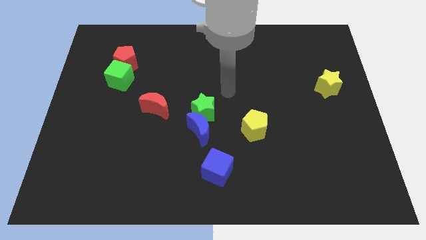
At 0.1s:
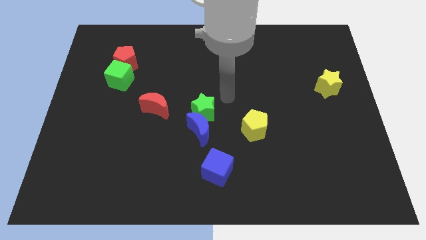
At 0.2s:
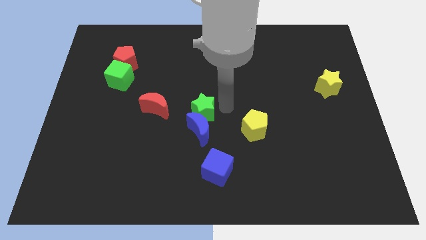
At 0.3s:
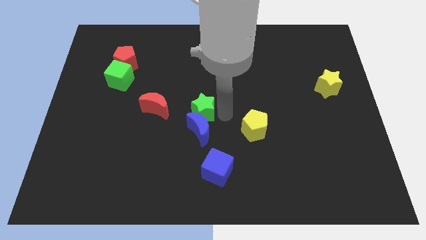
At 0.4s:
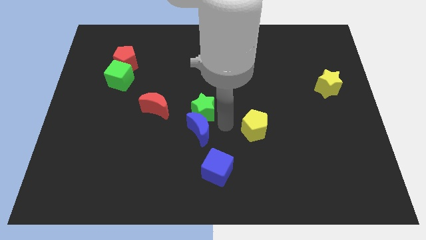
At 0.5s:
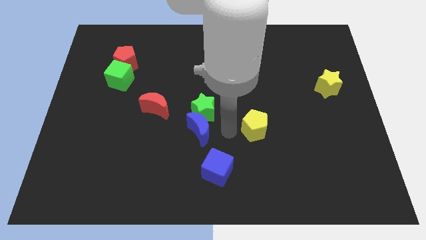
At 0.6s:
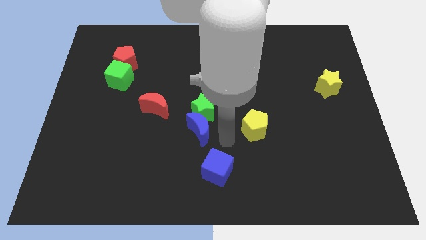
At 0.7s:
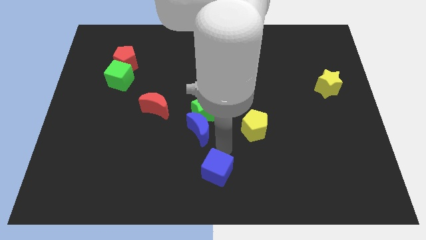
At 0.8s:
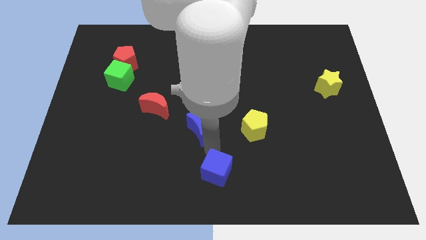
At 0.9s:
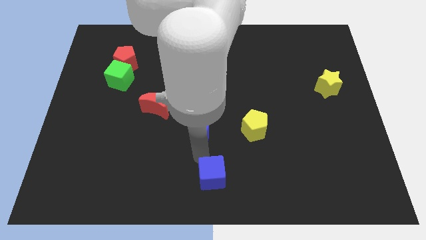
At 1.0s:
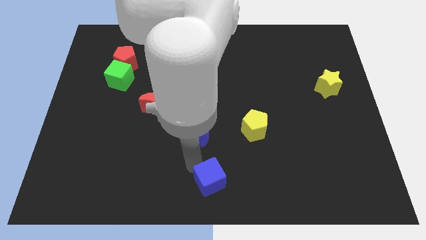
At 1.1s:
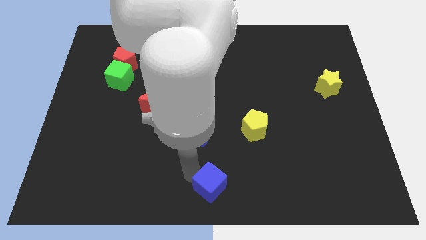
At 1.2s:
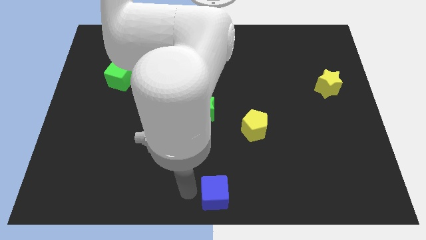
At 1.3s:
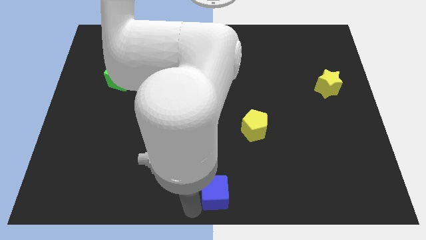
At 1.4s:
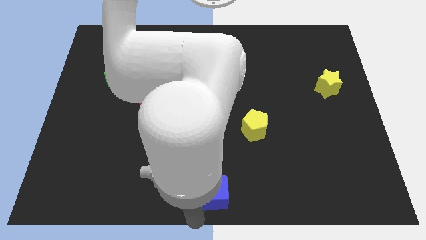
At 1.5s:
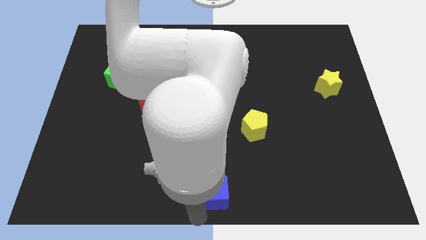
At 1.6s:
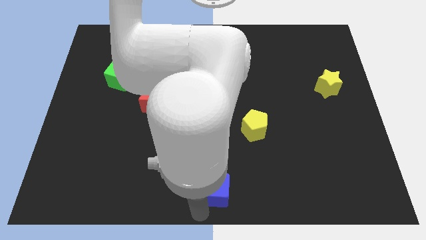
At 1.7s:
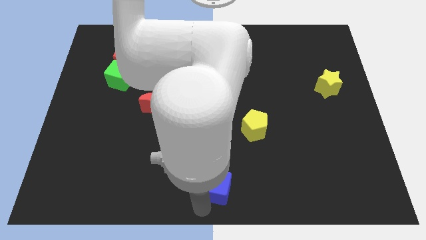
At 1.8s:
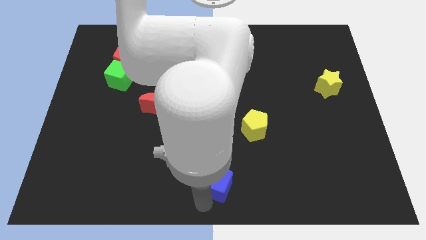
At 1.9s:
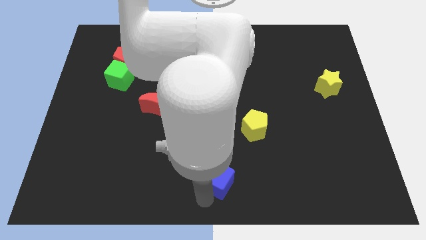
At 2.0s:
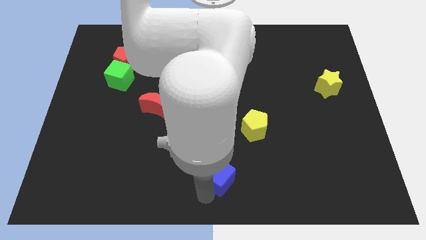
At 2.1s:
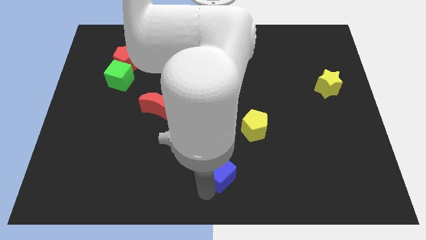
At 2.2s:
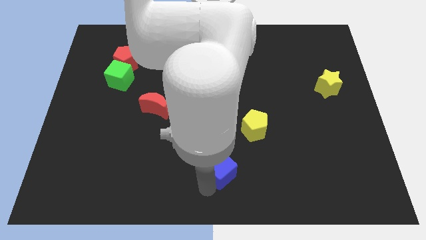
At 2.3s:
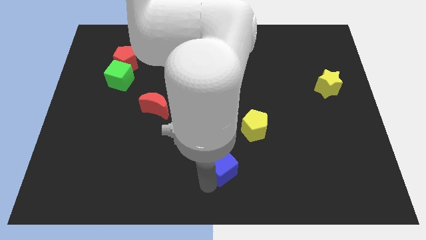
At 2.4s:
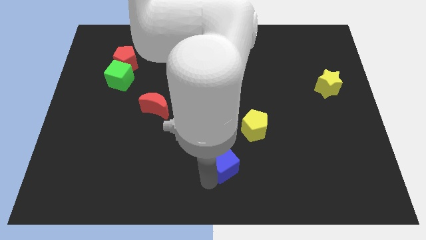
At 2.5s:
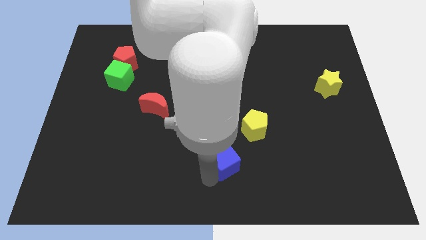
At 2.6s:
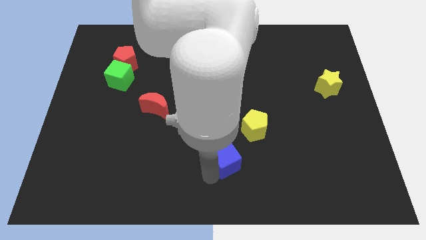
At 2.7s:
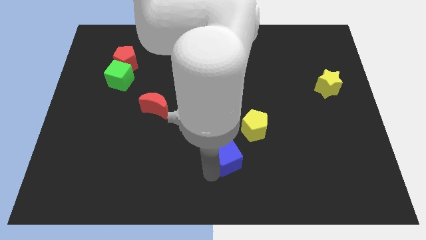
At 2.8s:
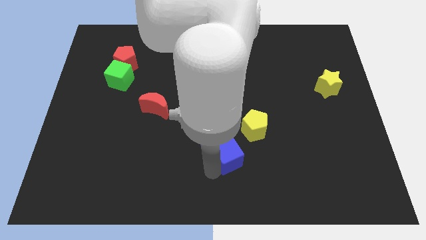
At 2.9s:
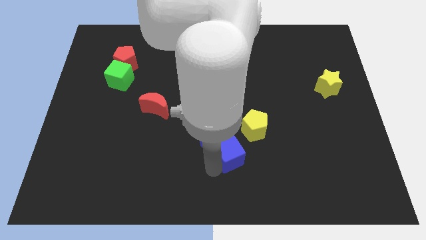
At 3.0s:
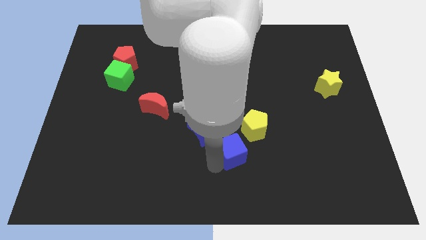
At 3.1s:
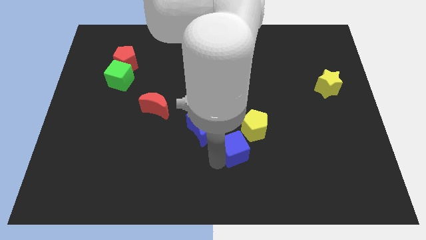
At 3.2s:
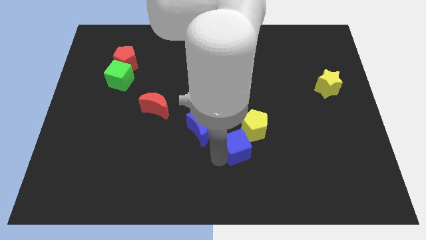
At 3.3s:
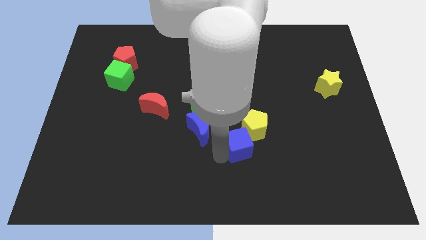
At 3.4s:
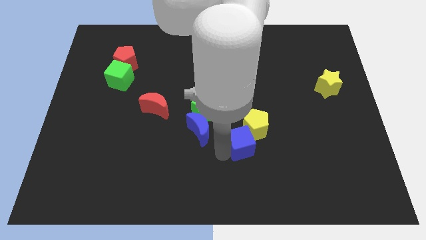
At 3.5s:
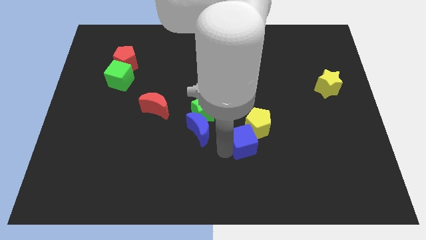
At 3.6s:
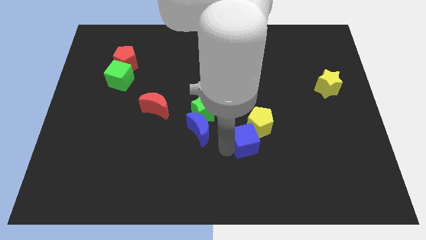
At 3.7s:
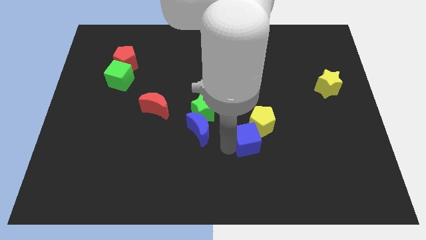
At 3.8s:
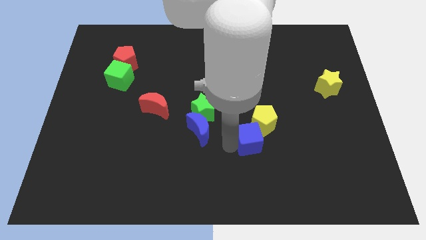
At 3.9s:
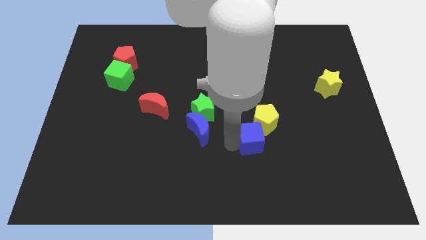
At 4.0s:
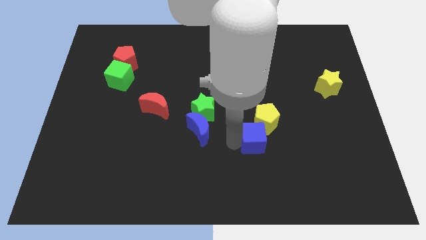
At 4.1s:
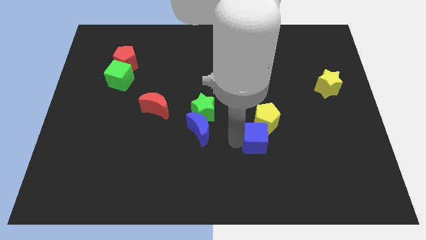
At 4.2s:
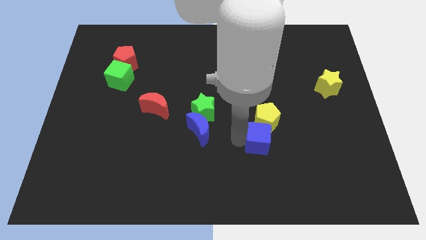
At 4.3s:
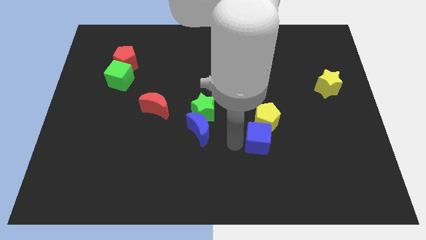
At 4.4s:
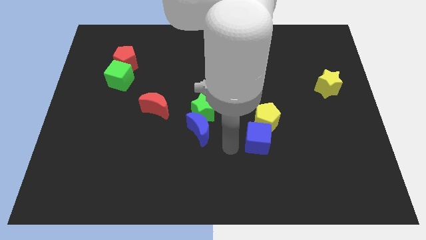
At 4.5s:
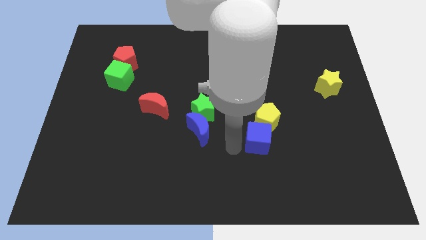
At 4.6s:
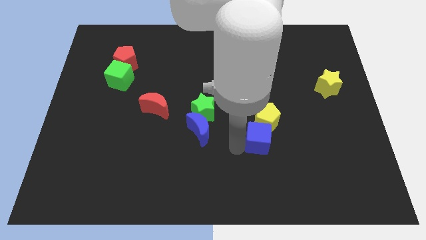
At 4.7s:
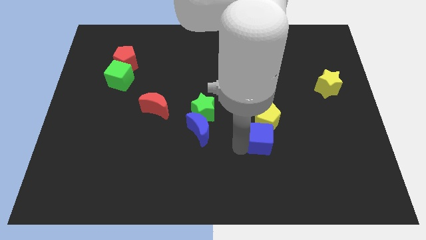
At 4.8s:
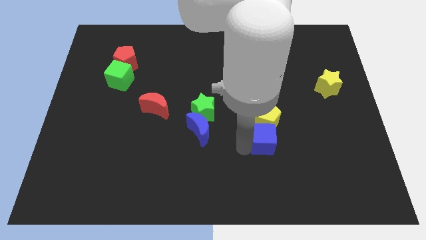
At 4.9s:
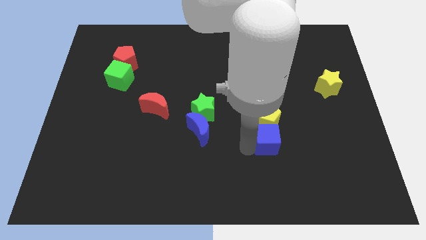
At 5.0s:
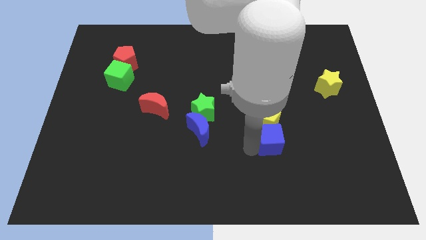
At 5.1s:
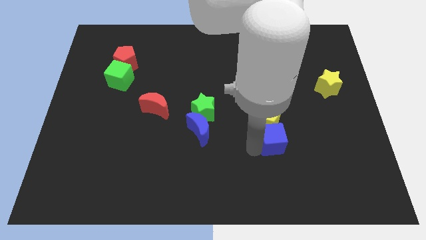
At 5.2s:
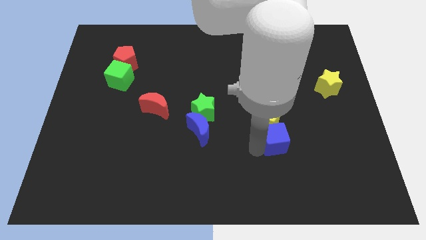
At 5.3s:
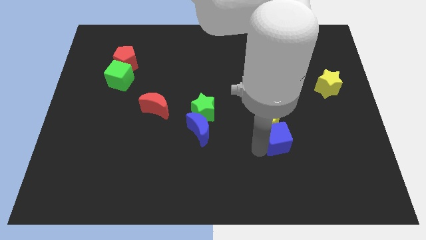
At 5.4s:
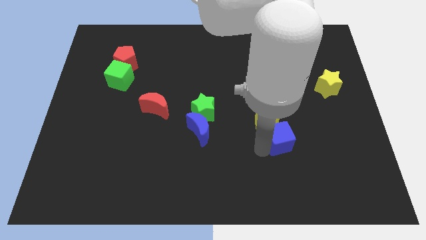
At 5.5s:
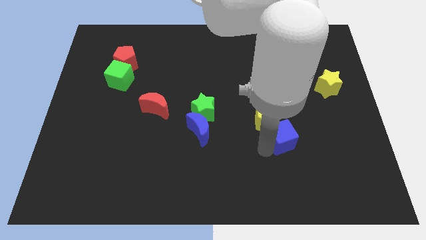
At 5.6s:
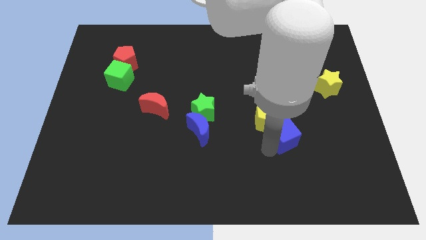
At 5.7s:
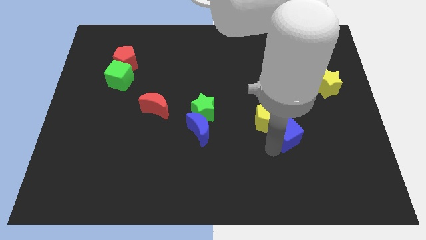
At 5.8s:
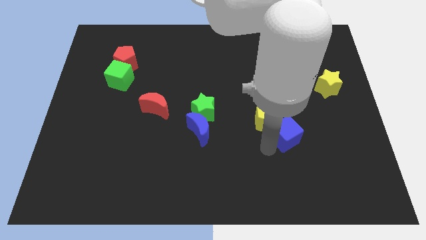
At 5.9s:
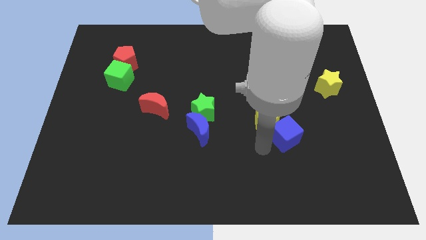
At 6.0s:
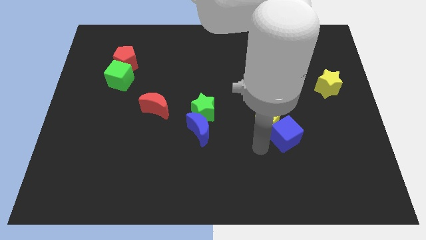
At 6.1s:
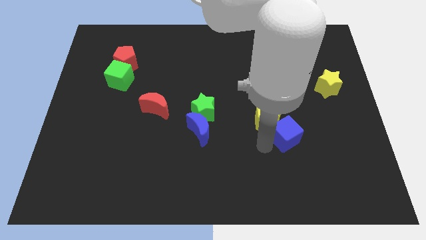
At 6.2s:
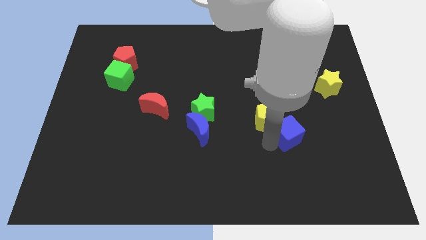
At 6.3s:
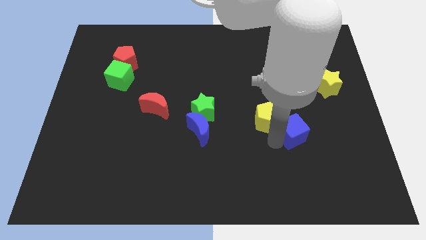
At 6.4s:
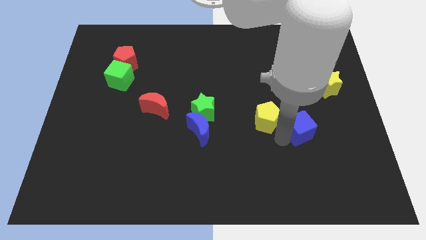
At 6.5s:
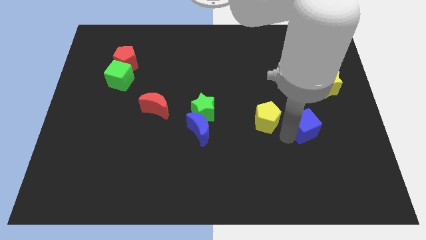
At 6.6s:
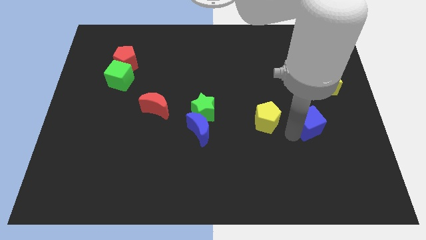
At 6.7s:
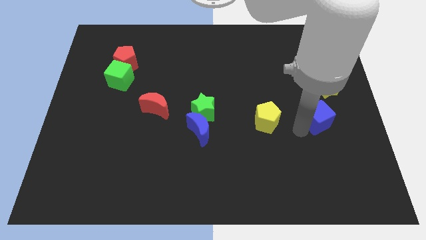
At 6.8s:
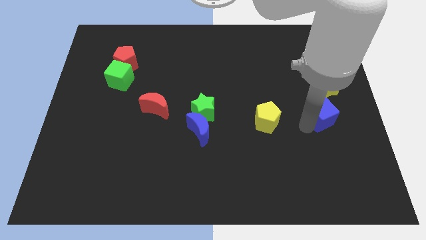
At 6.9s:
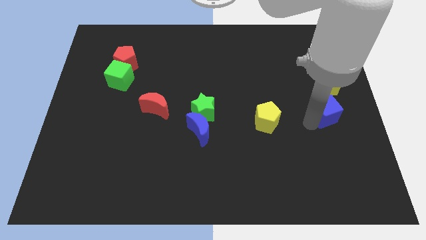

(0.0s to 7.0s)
push the blue cube to the right side of the board
